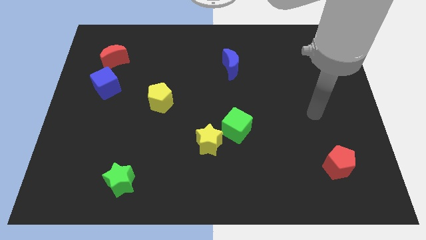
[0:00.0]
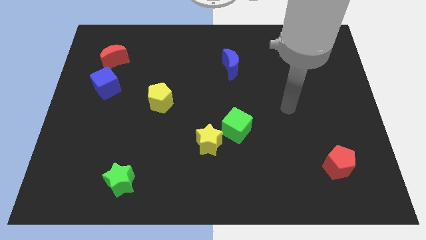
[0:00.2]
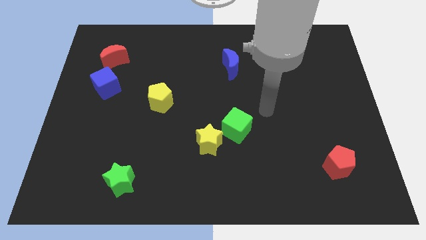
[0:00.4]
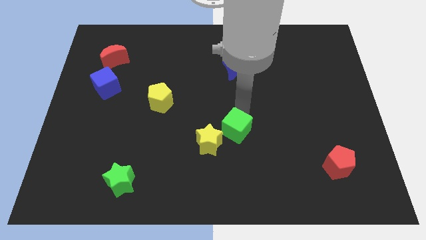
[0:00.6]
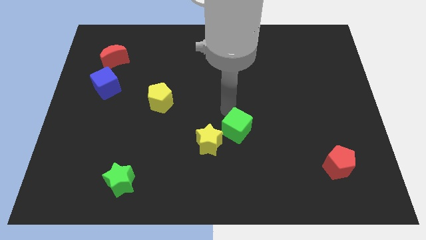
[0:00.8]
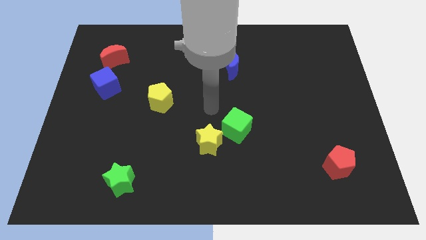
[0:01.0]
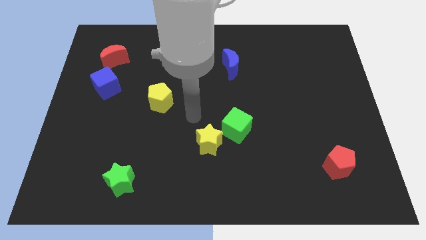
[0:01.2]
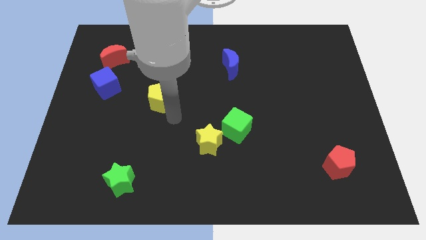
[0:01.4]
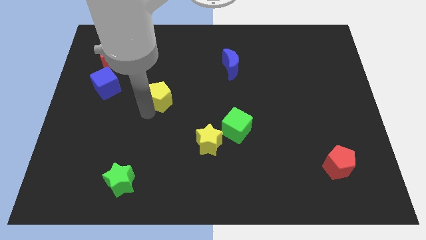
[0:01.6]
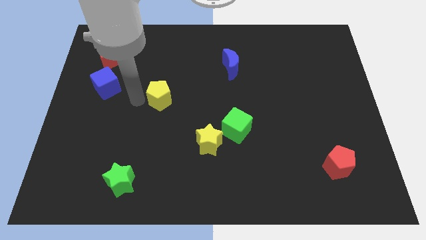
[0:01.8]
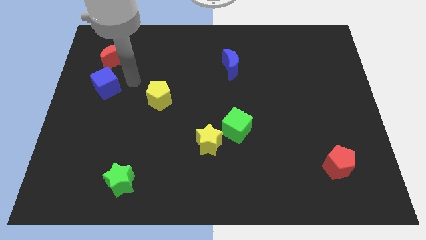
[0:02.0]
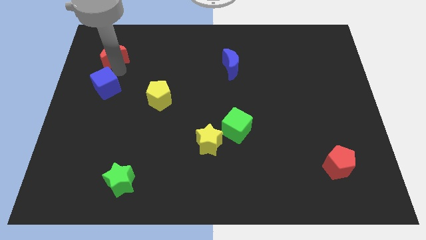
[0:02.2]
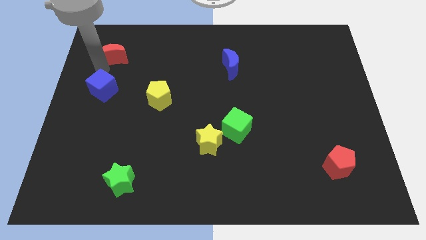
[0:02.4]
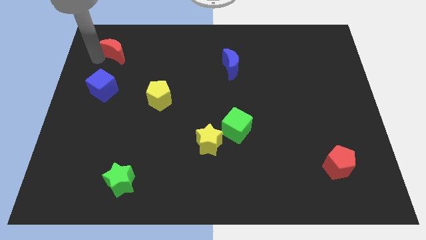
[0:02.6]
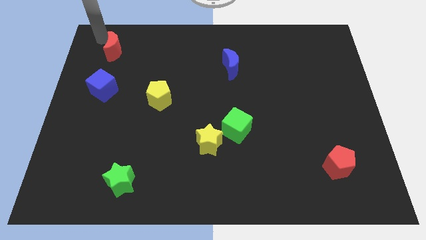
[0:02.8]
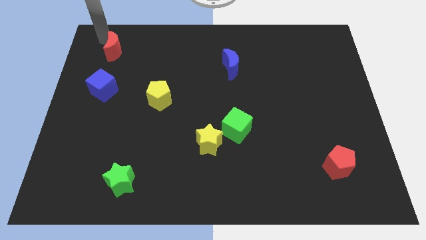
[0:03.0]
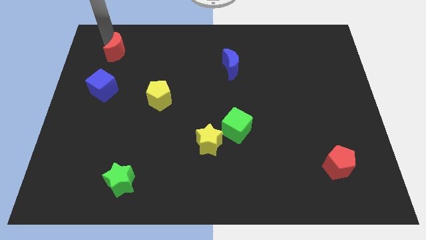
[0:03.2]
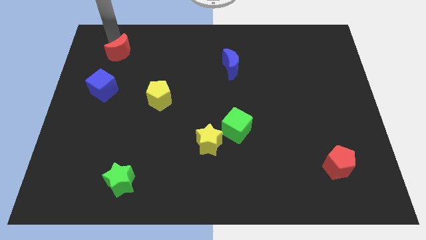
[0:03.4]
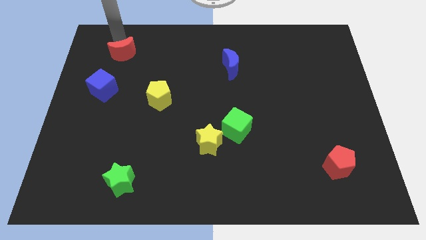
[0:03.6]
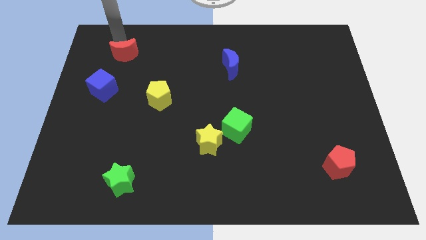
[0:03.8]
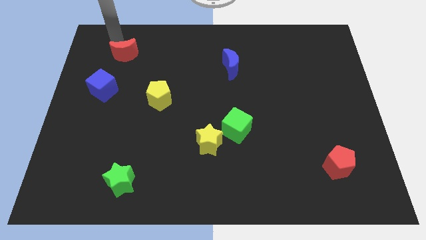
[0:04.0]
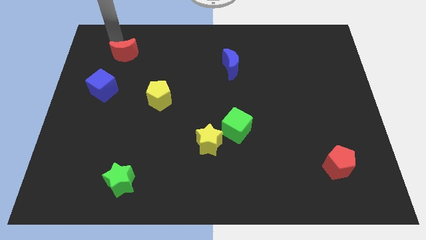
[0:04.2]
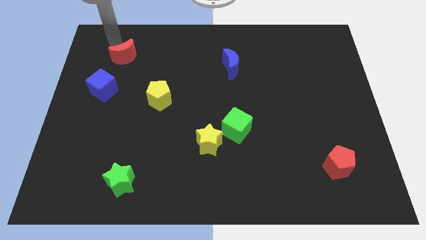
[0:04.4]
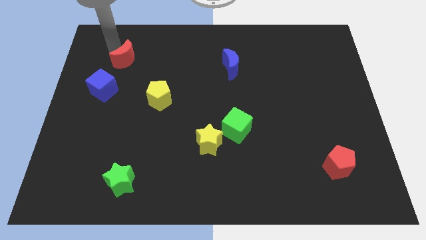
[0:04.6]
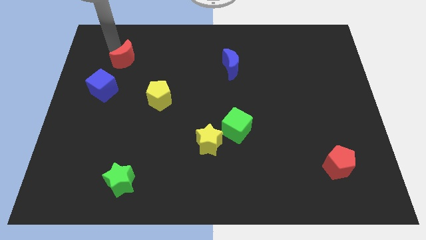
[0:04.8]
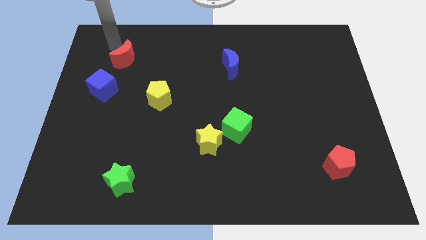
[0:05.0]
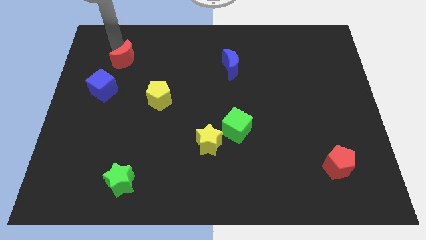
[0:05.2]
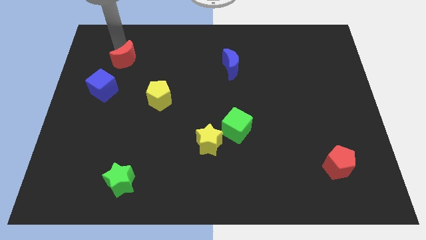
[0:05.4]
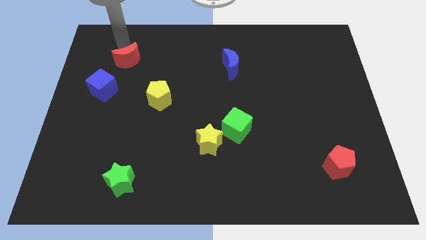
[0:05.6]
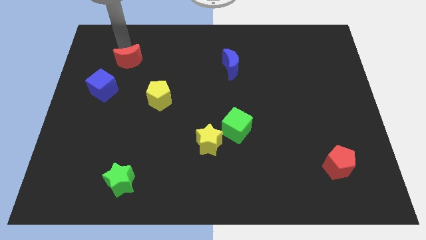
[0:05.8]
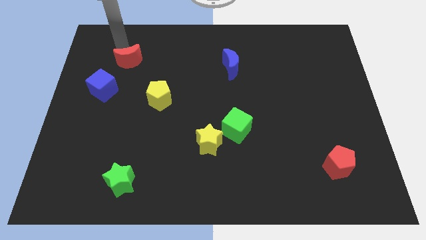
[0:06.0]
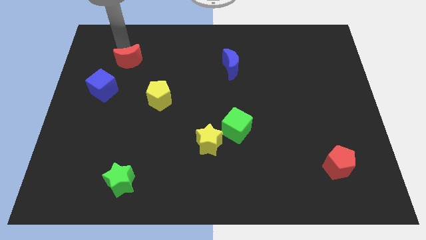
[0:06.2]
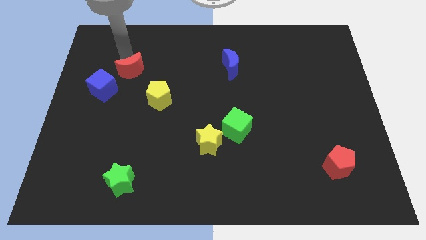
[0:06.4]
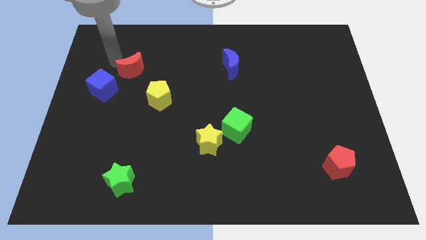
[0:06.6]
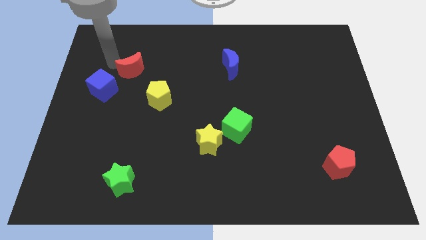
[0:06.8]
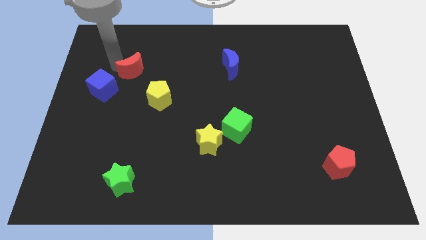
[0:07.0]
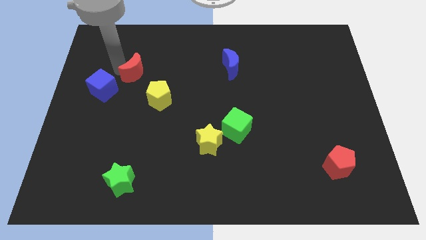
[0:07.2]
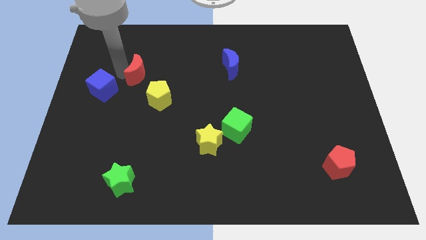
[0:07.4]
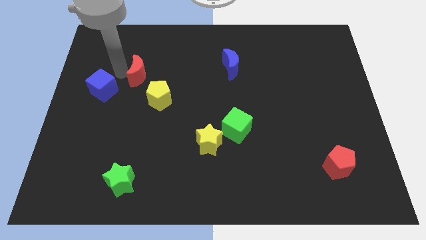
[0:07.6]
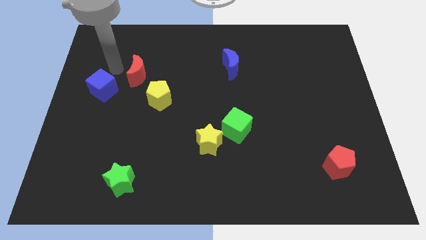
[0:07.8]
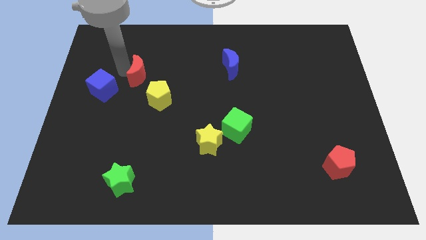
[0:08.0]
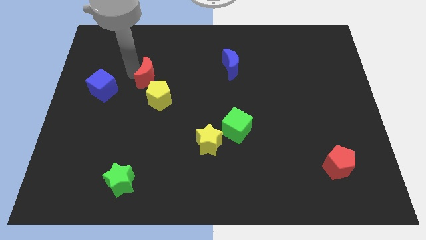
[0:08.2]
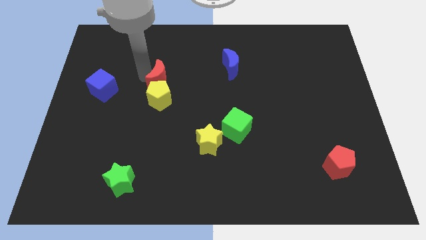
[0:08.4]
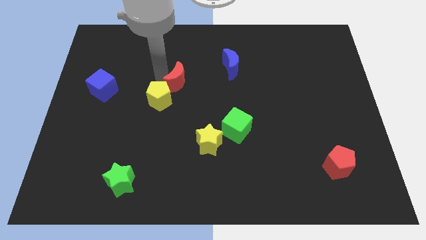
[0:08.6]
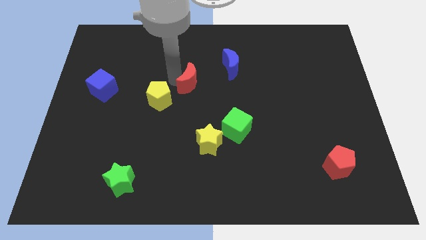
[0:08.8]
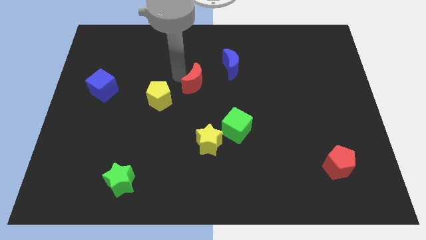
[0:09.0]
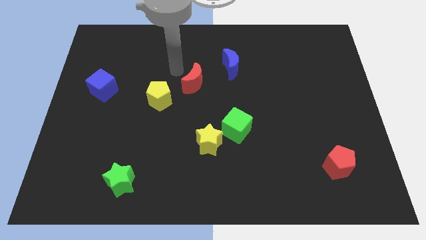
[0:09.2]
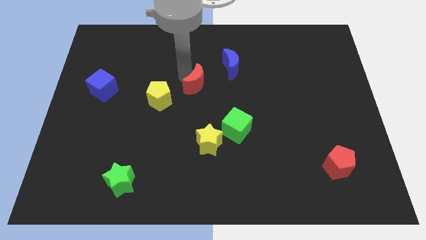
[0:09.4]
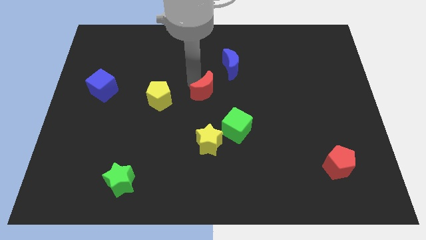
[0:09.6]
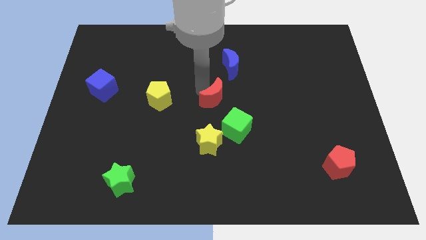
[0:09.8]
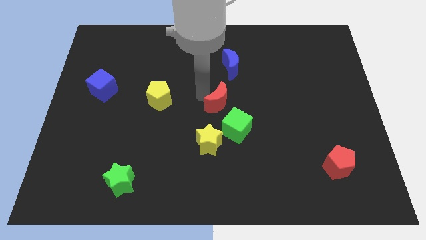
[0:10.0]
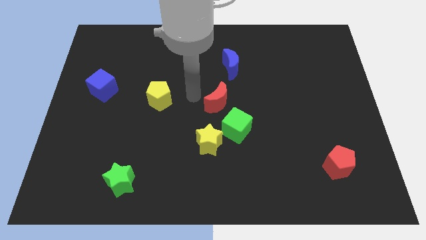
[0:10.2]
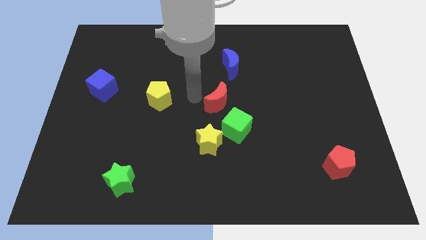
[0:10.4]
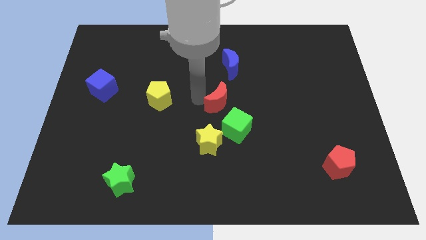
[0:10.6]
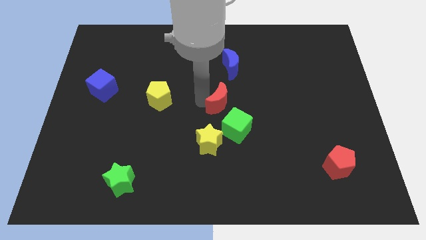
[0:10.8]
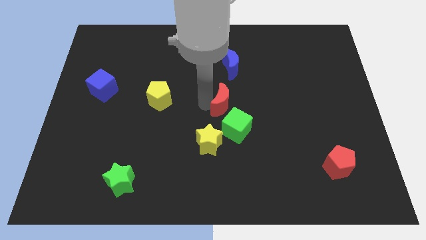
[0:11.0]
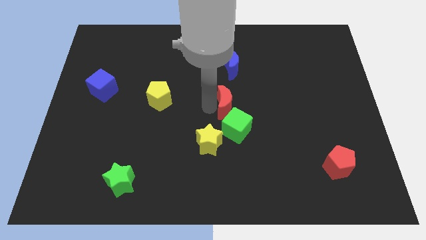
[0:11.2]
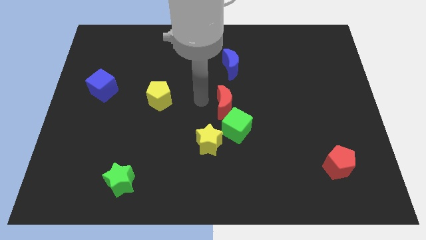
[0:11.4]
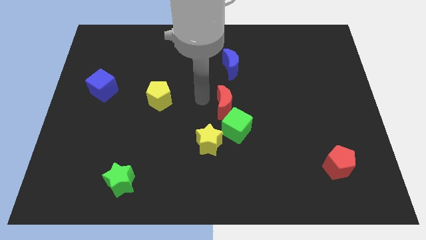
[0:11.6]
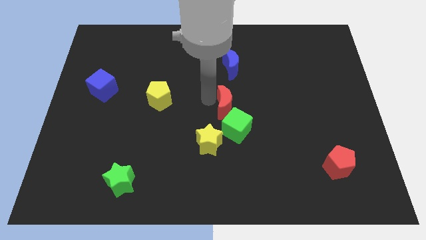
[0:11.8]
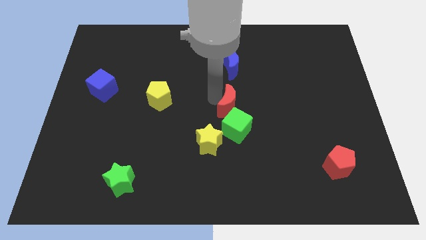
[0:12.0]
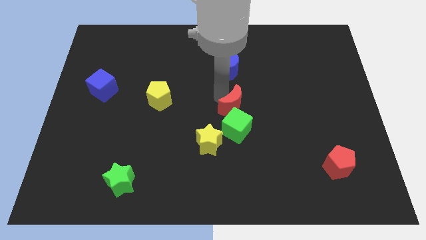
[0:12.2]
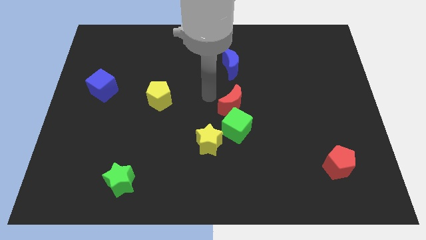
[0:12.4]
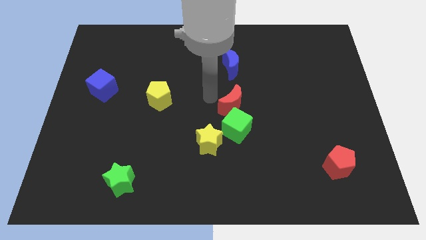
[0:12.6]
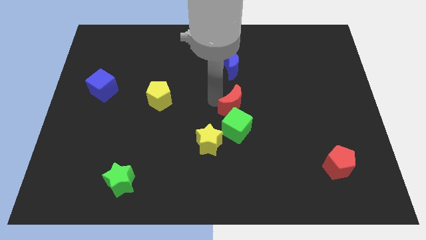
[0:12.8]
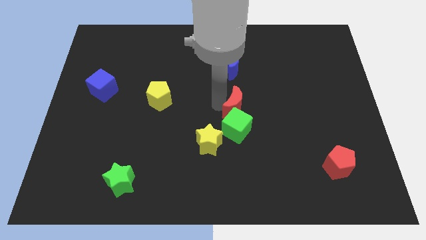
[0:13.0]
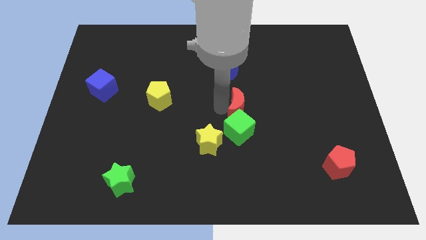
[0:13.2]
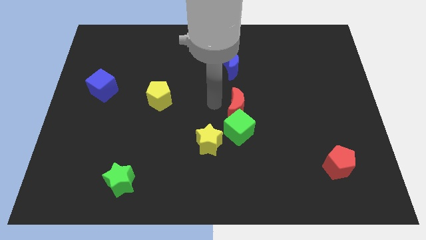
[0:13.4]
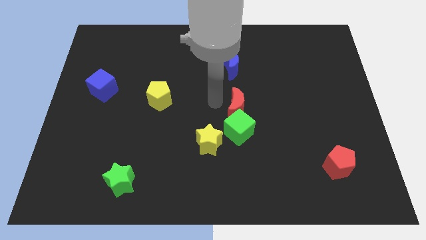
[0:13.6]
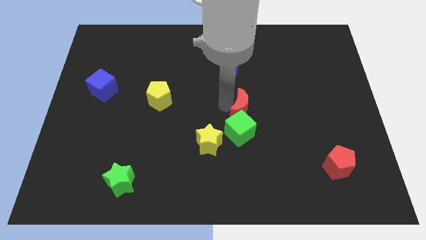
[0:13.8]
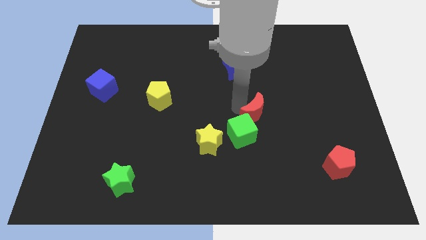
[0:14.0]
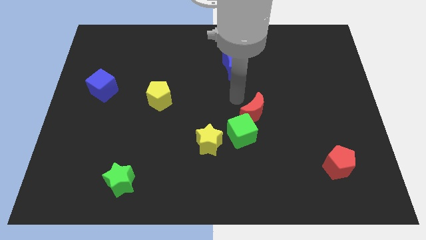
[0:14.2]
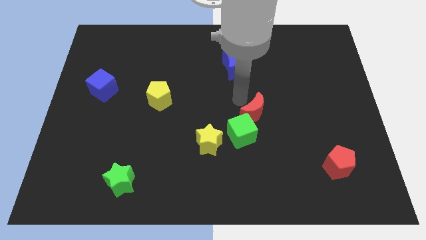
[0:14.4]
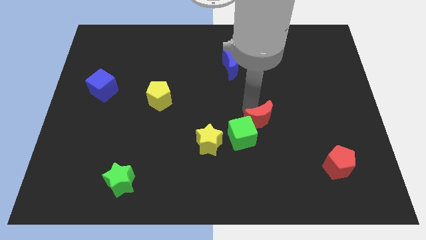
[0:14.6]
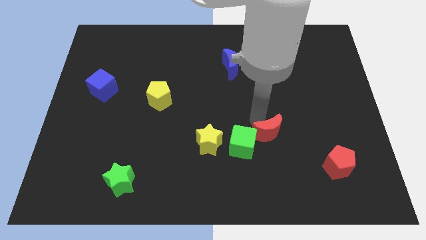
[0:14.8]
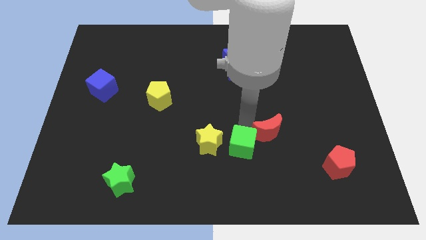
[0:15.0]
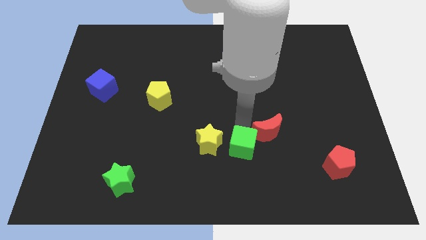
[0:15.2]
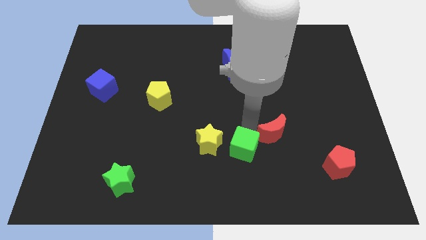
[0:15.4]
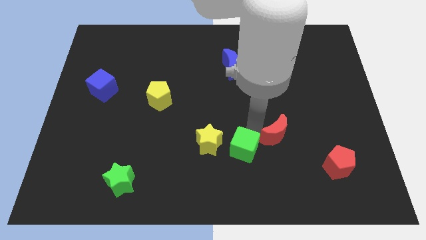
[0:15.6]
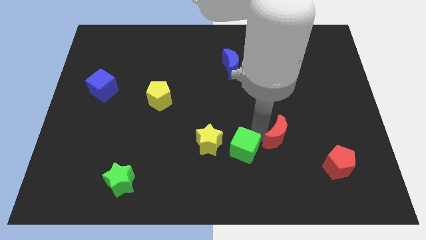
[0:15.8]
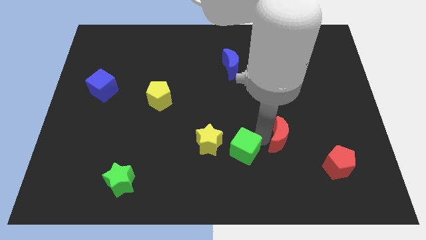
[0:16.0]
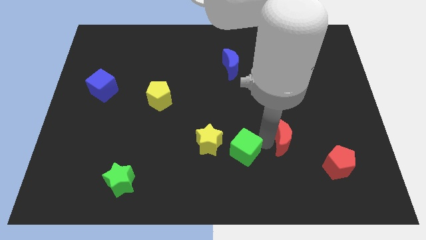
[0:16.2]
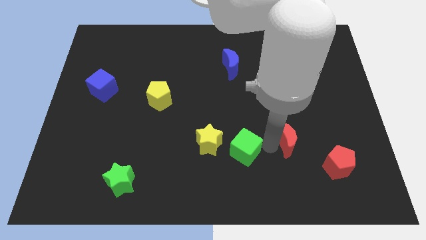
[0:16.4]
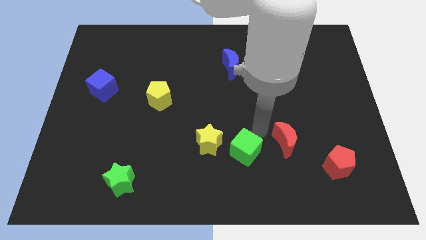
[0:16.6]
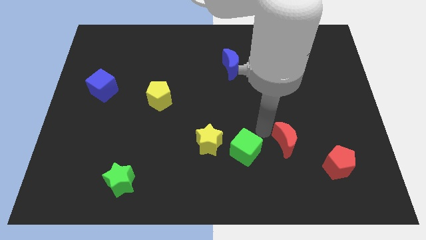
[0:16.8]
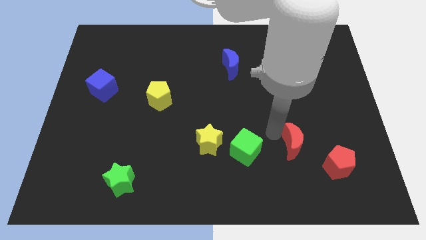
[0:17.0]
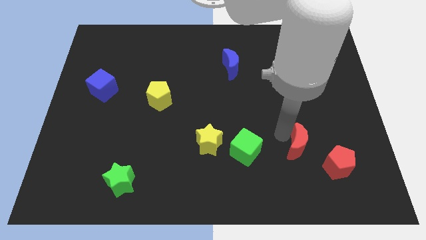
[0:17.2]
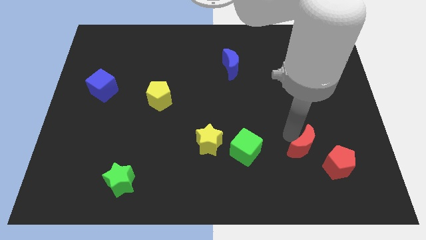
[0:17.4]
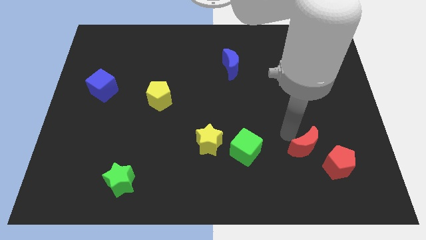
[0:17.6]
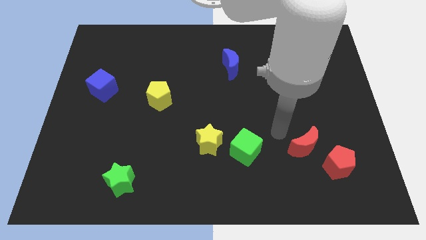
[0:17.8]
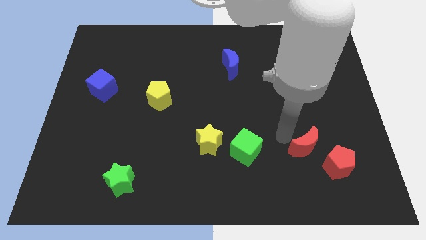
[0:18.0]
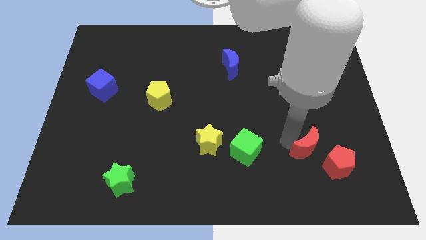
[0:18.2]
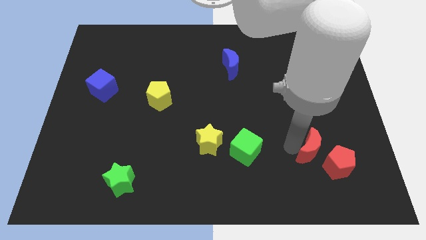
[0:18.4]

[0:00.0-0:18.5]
put the red moon next to the red pentagon
